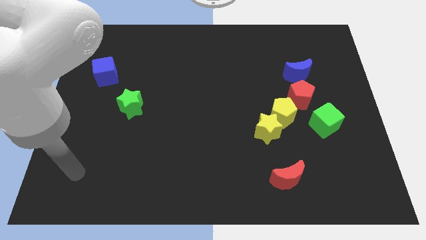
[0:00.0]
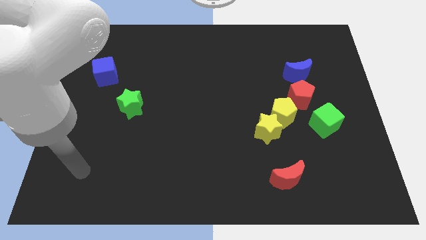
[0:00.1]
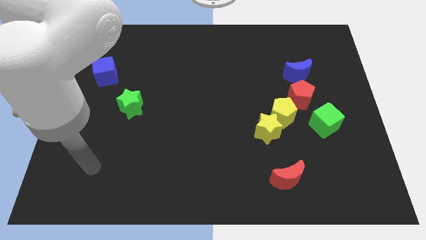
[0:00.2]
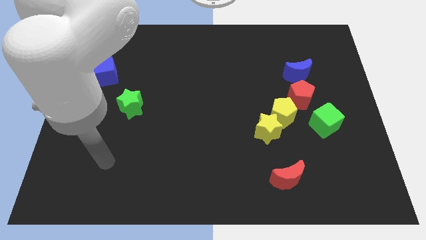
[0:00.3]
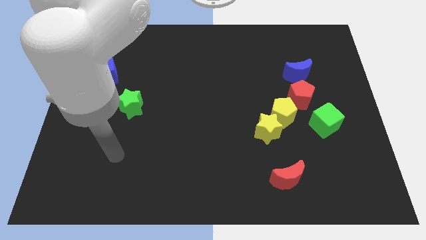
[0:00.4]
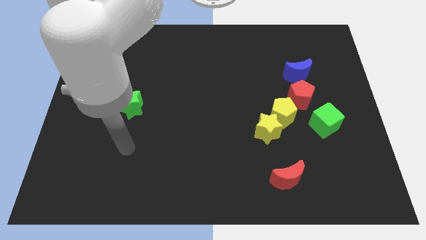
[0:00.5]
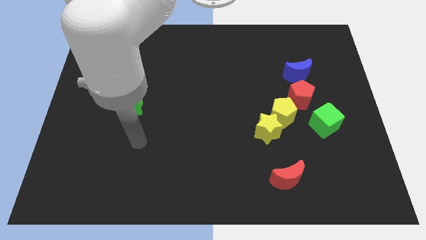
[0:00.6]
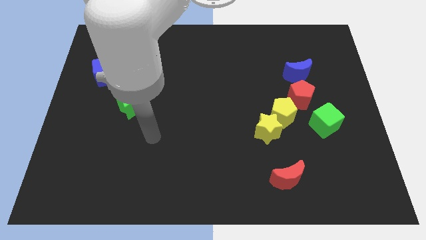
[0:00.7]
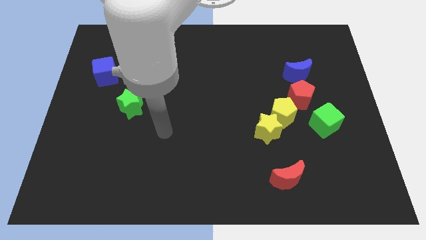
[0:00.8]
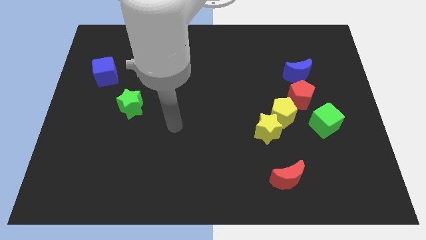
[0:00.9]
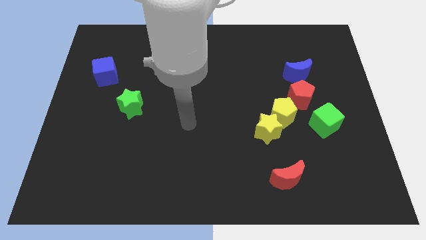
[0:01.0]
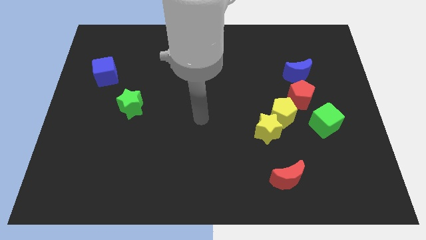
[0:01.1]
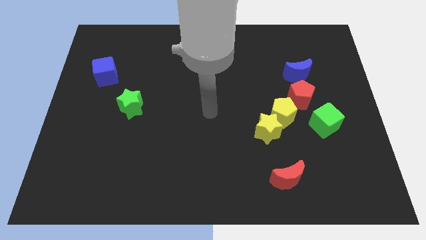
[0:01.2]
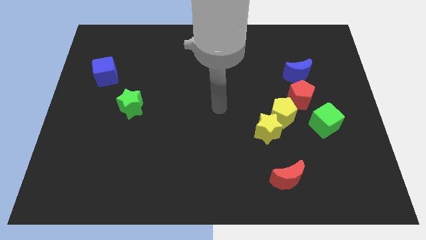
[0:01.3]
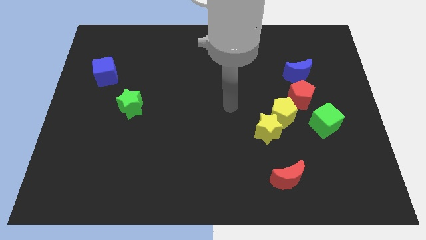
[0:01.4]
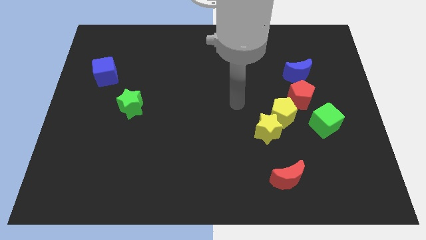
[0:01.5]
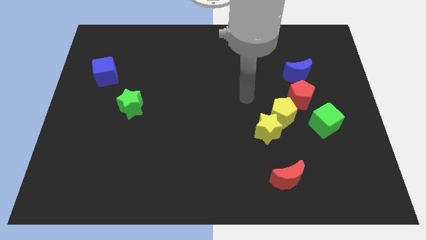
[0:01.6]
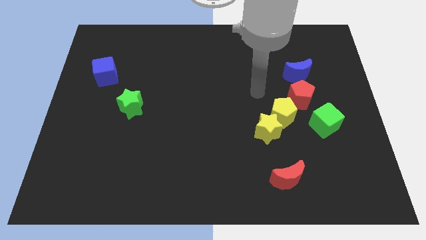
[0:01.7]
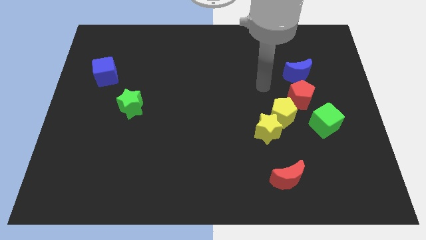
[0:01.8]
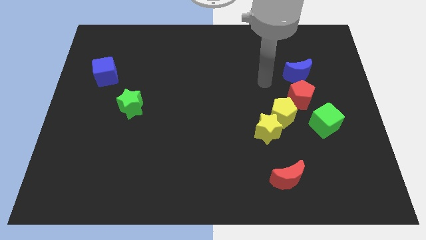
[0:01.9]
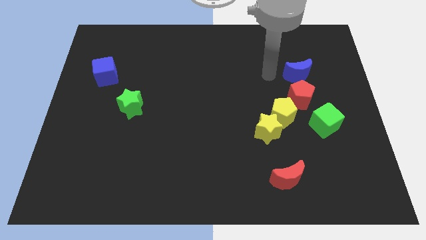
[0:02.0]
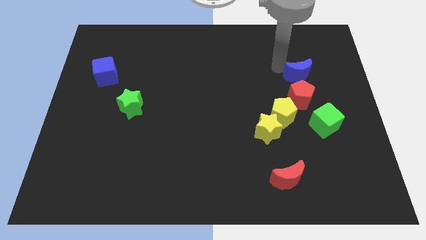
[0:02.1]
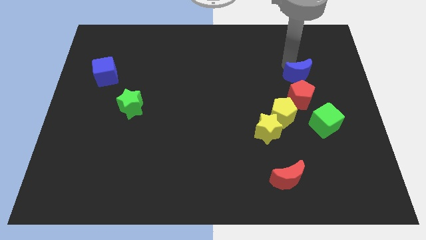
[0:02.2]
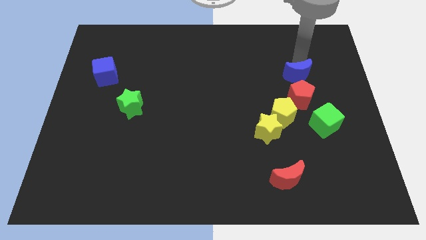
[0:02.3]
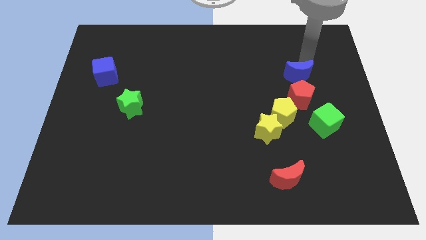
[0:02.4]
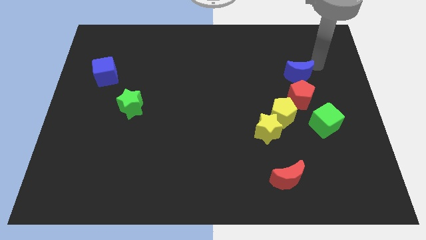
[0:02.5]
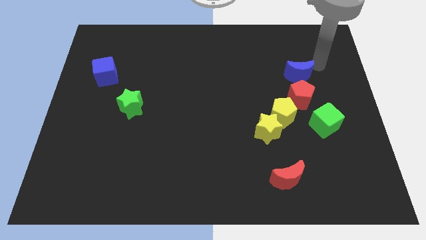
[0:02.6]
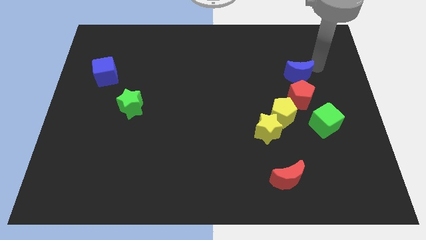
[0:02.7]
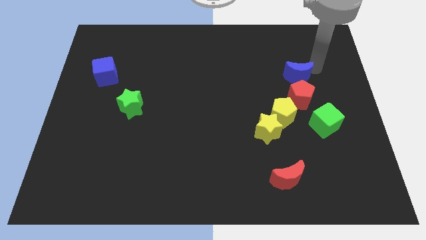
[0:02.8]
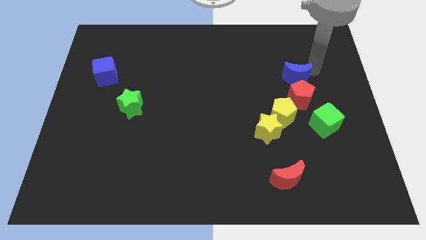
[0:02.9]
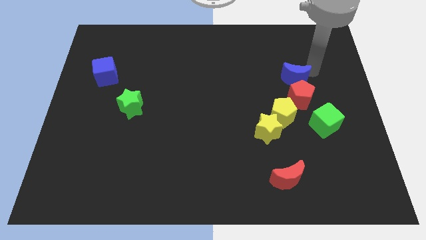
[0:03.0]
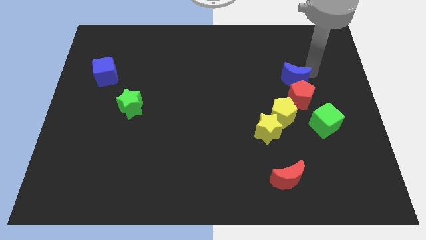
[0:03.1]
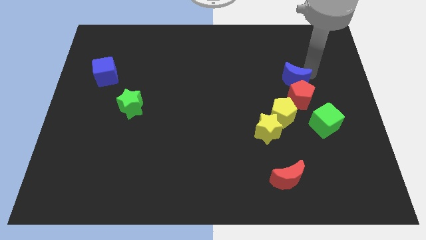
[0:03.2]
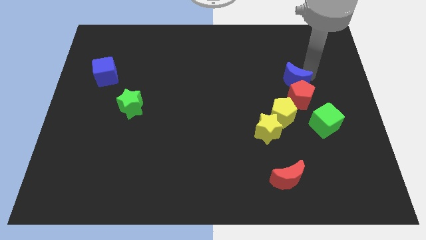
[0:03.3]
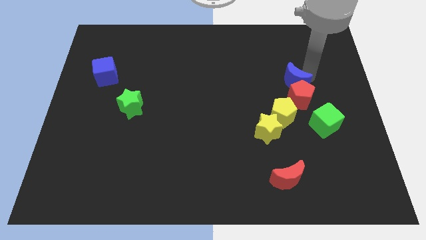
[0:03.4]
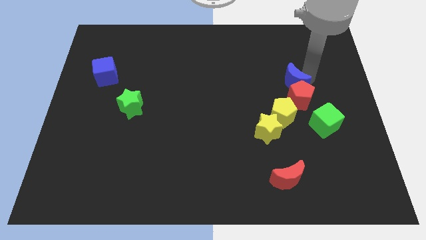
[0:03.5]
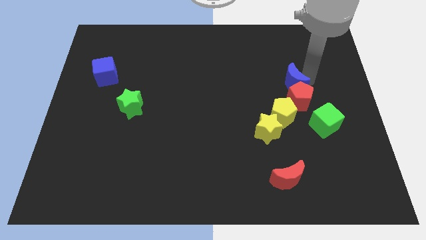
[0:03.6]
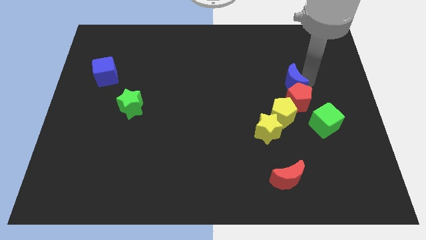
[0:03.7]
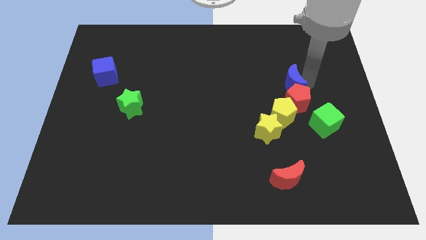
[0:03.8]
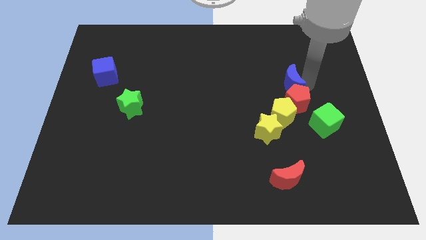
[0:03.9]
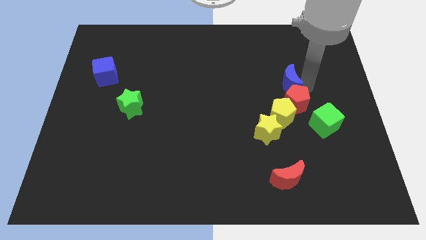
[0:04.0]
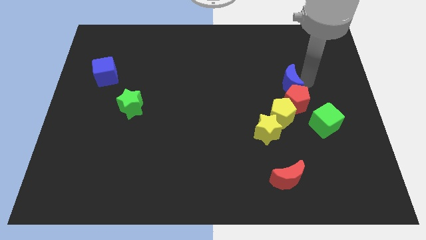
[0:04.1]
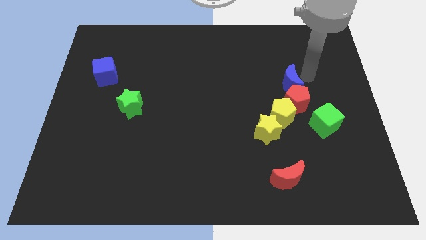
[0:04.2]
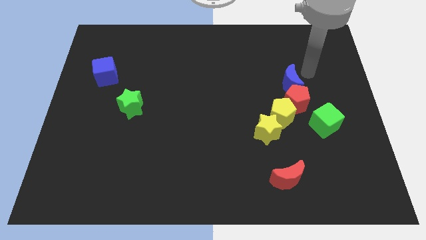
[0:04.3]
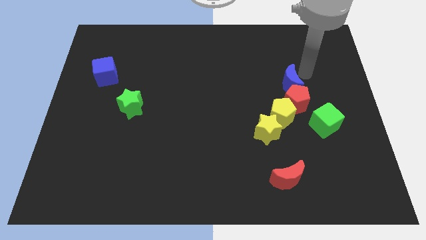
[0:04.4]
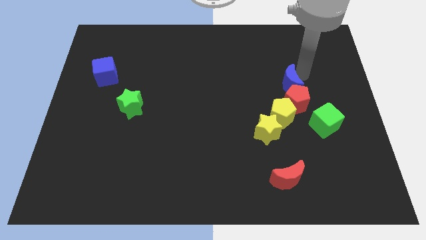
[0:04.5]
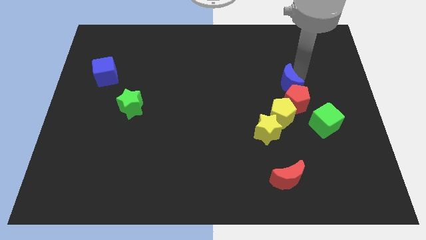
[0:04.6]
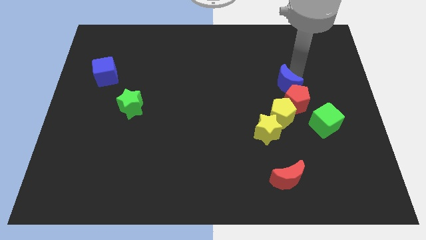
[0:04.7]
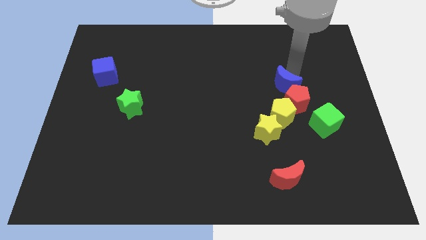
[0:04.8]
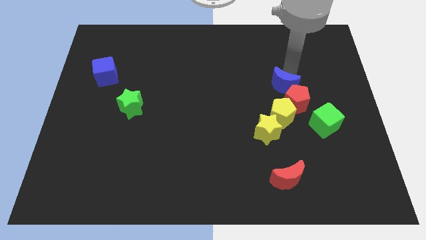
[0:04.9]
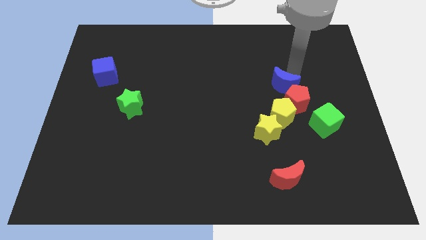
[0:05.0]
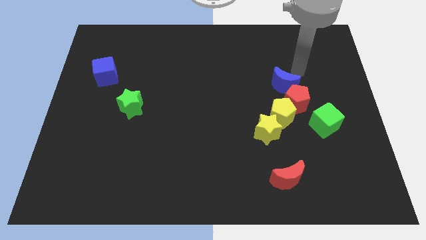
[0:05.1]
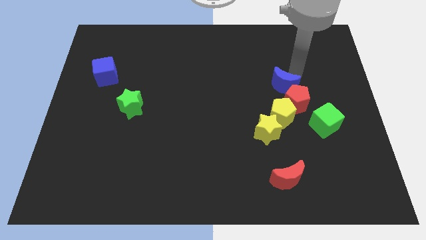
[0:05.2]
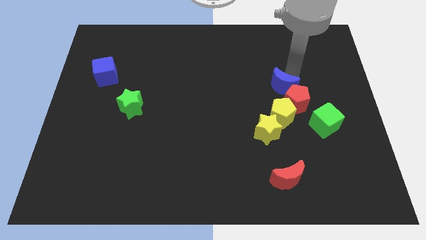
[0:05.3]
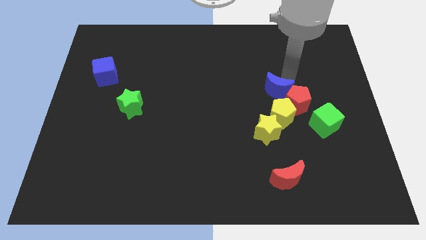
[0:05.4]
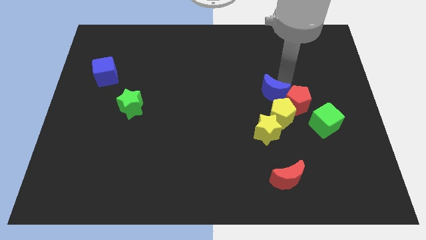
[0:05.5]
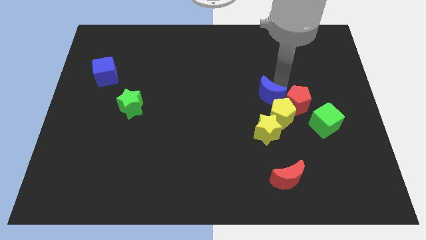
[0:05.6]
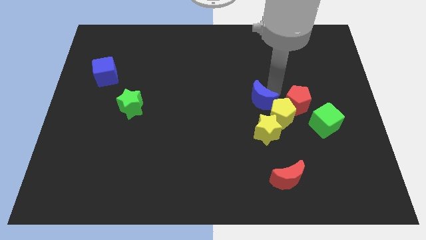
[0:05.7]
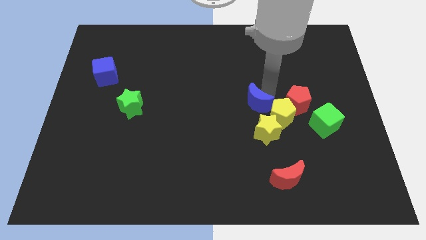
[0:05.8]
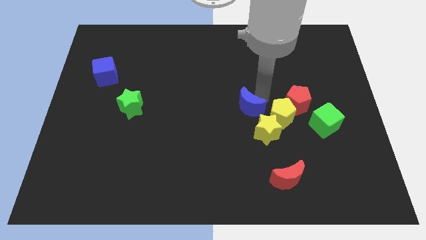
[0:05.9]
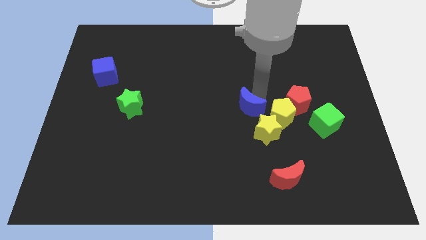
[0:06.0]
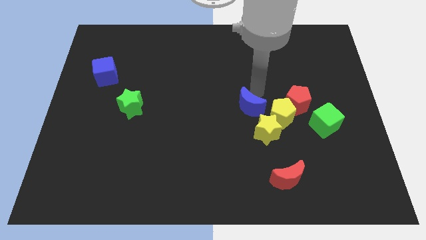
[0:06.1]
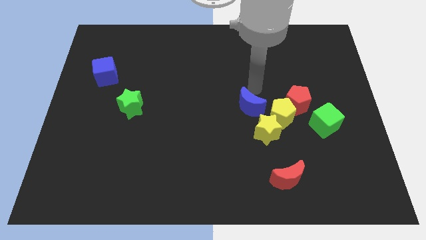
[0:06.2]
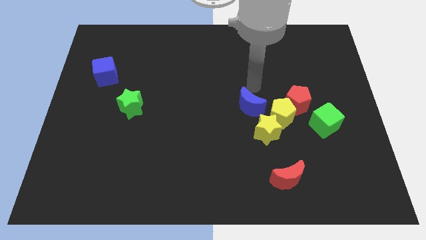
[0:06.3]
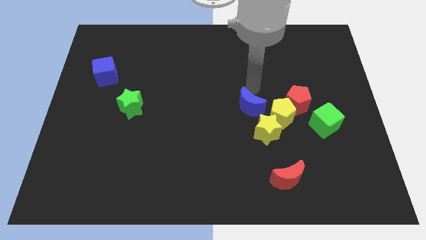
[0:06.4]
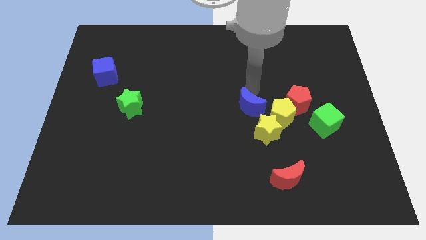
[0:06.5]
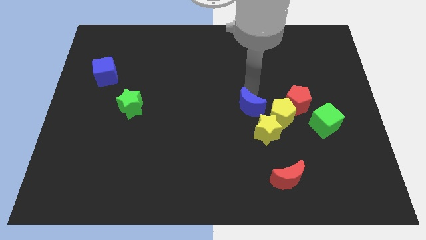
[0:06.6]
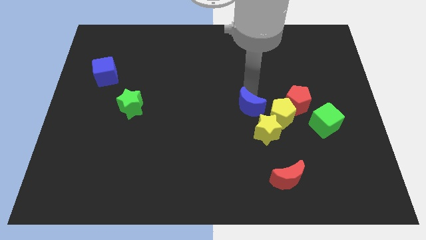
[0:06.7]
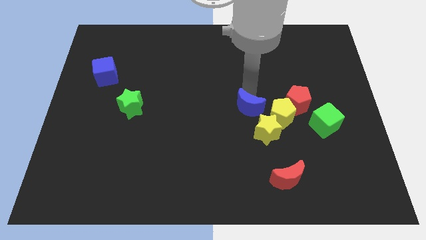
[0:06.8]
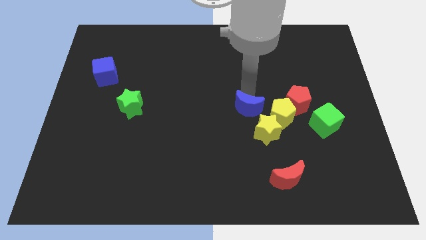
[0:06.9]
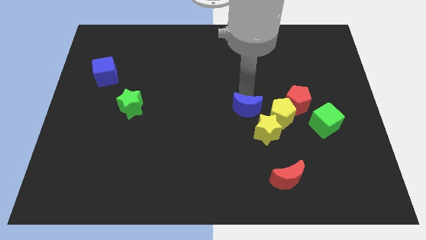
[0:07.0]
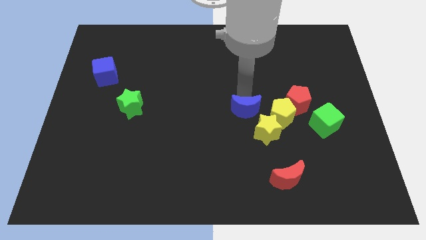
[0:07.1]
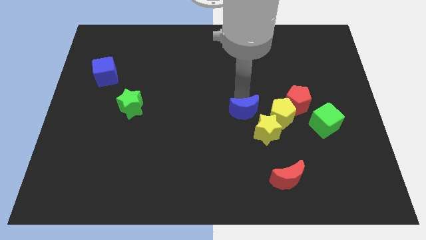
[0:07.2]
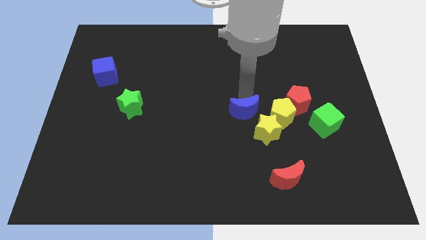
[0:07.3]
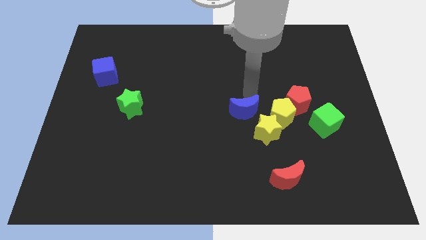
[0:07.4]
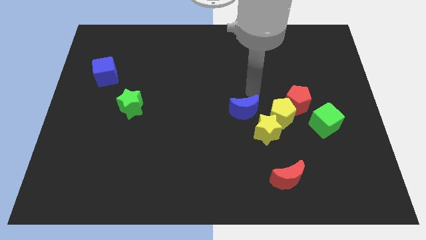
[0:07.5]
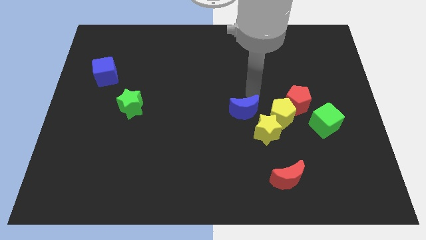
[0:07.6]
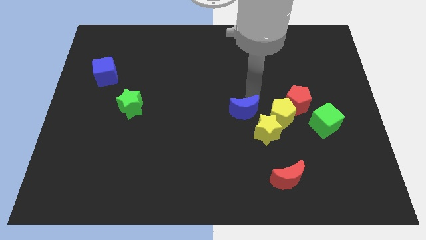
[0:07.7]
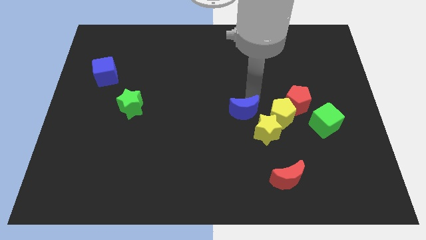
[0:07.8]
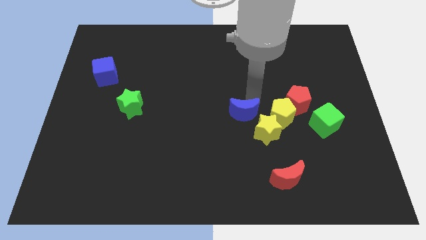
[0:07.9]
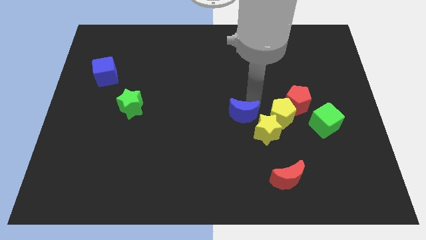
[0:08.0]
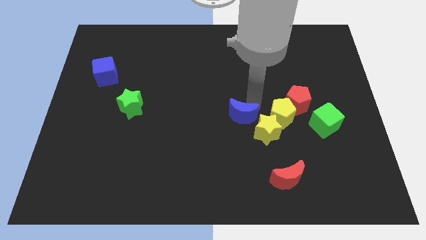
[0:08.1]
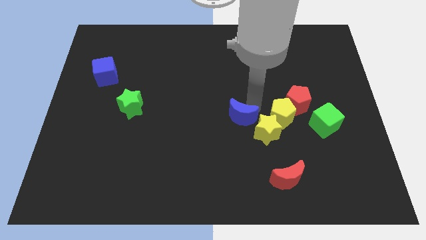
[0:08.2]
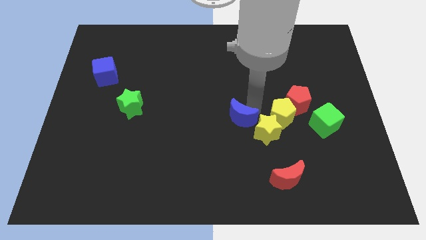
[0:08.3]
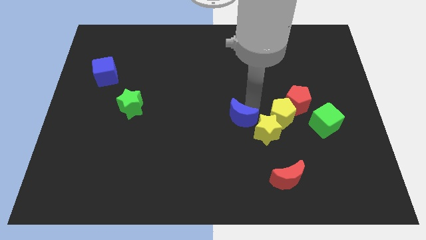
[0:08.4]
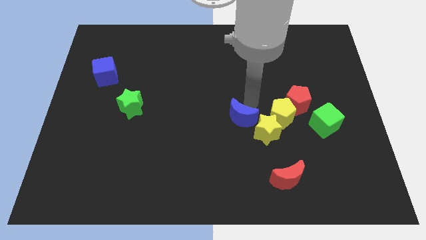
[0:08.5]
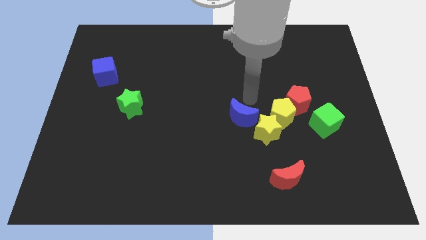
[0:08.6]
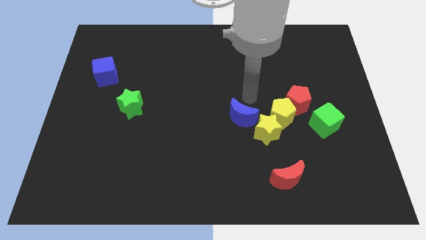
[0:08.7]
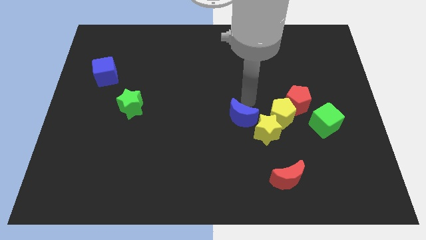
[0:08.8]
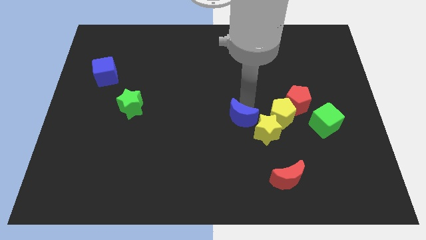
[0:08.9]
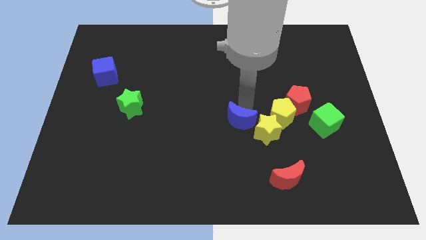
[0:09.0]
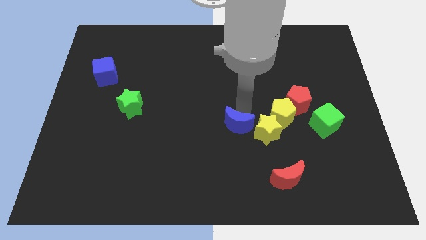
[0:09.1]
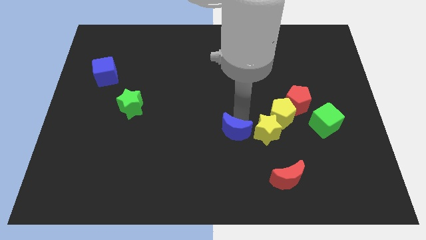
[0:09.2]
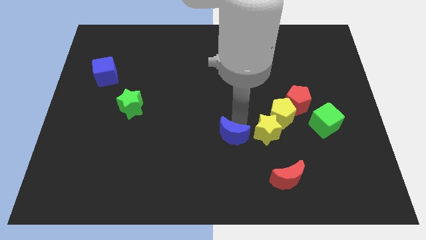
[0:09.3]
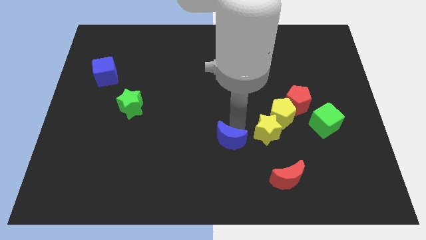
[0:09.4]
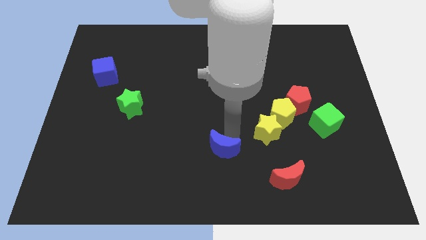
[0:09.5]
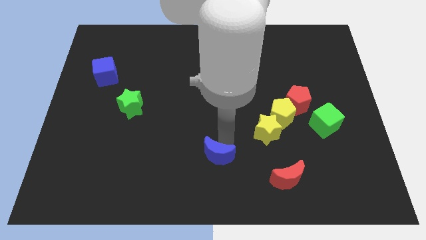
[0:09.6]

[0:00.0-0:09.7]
move the blue moon to the bottom
